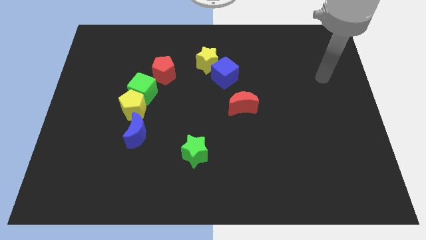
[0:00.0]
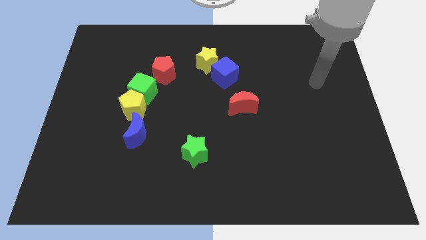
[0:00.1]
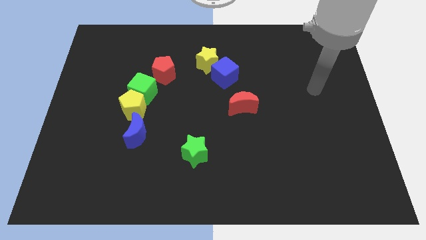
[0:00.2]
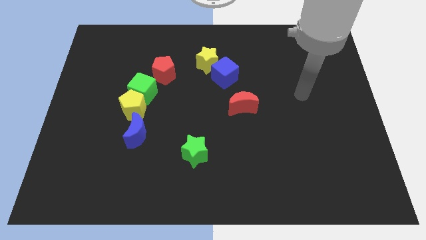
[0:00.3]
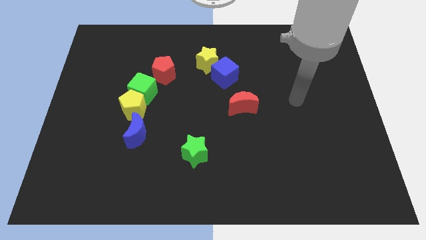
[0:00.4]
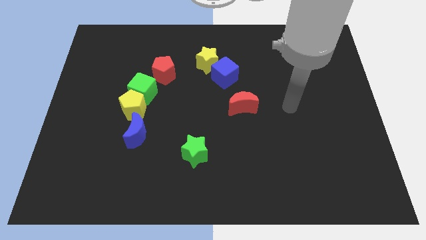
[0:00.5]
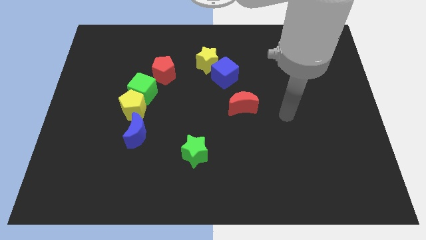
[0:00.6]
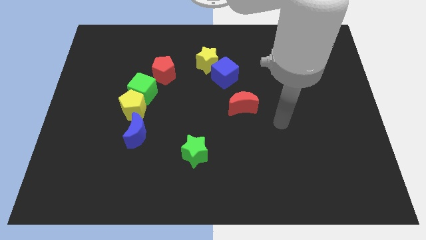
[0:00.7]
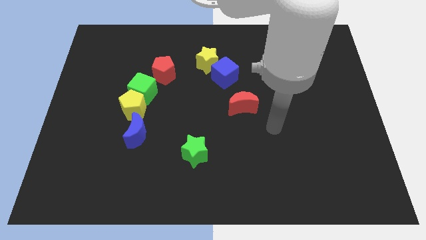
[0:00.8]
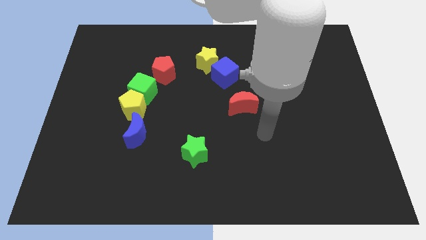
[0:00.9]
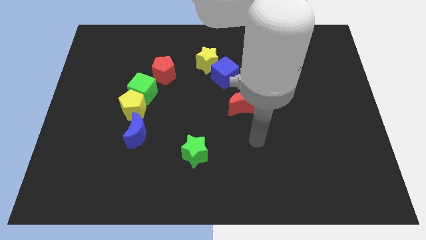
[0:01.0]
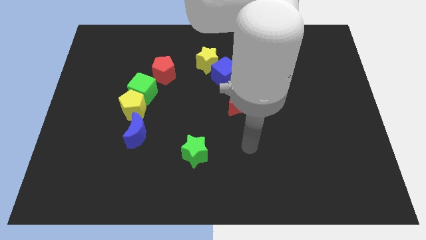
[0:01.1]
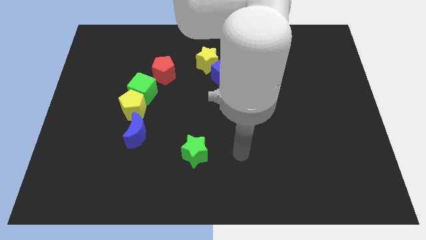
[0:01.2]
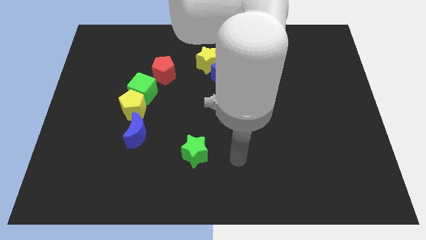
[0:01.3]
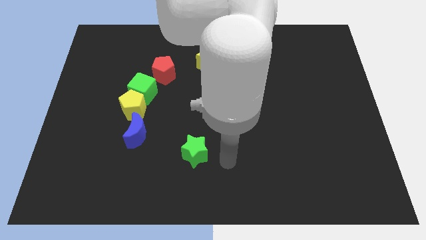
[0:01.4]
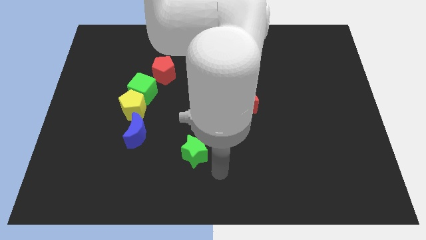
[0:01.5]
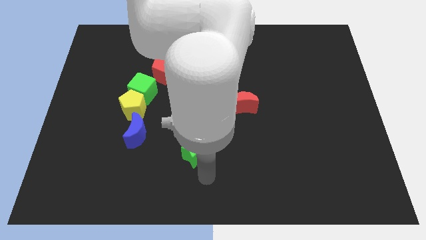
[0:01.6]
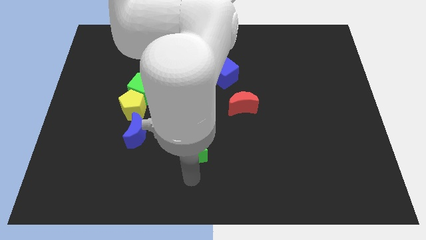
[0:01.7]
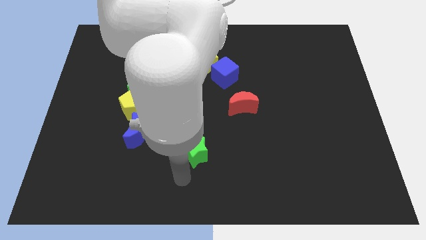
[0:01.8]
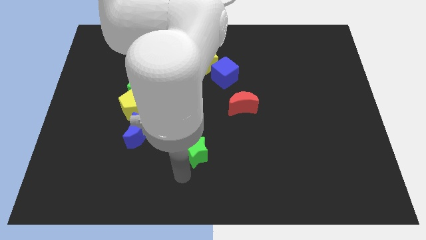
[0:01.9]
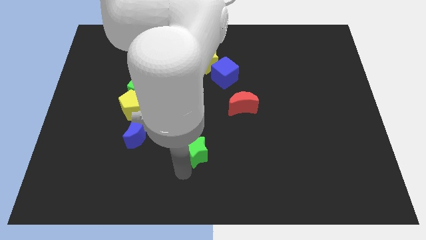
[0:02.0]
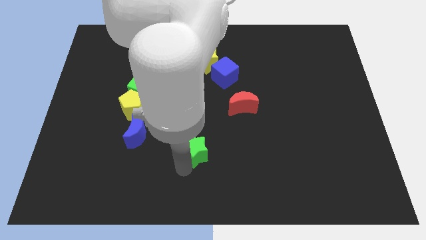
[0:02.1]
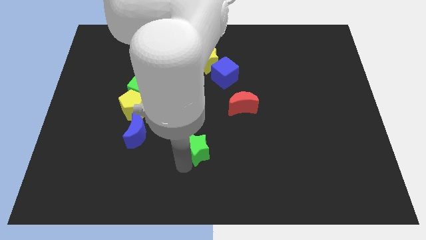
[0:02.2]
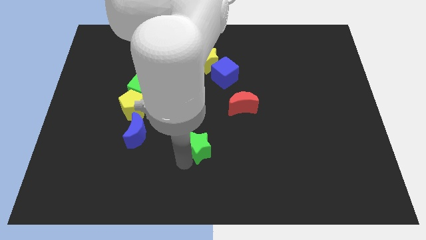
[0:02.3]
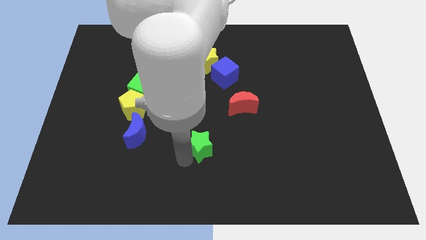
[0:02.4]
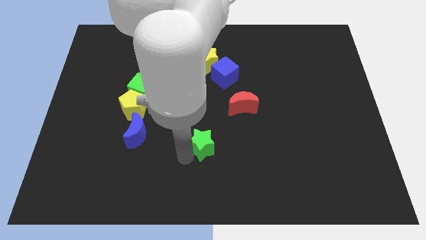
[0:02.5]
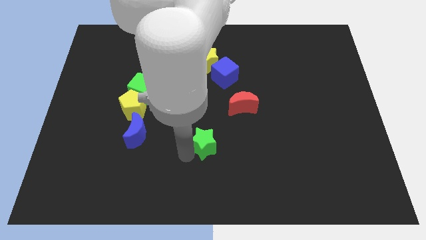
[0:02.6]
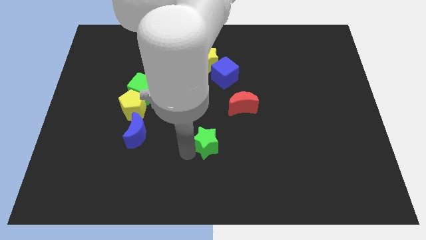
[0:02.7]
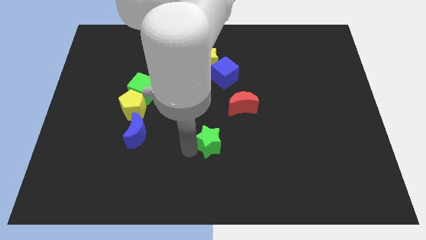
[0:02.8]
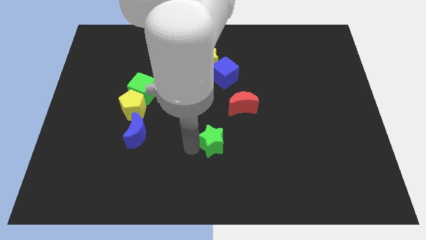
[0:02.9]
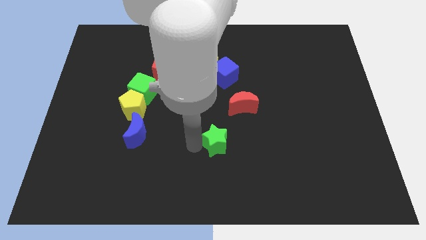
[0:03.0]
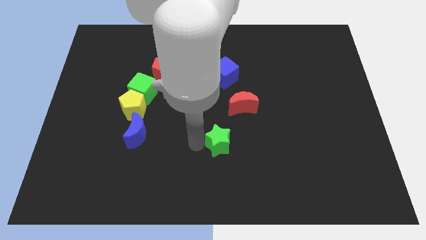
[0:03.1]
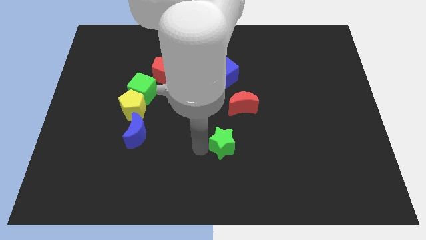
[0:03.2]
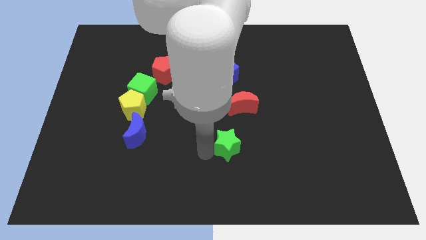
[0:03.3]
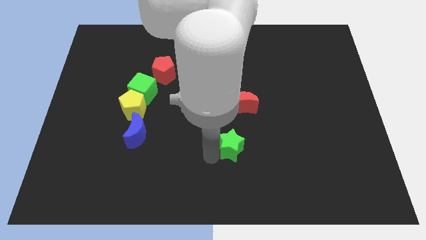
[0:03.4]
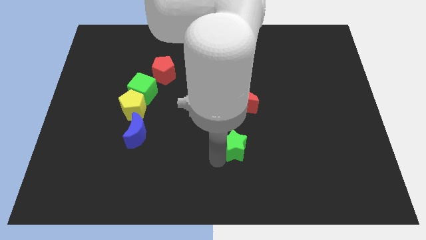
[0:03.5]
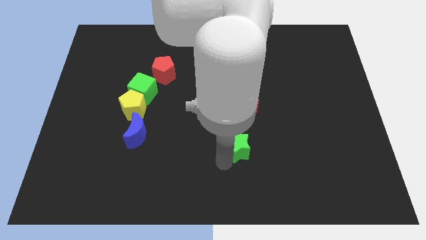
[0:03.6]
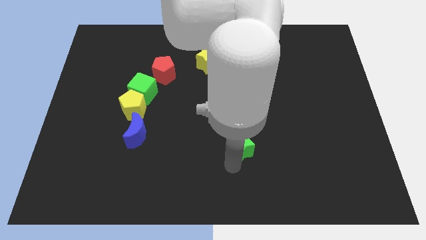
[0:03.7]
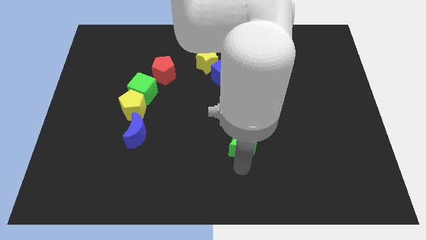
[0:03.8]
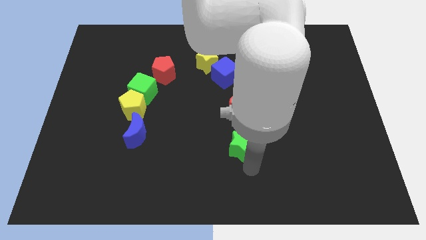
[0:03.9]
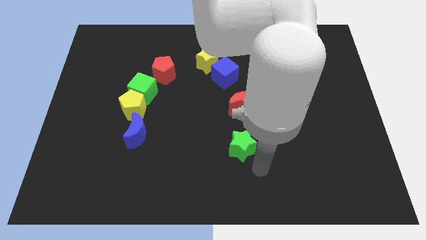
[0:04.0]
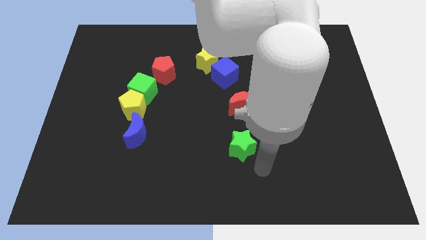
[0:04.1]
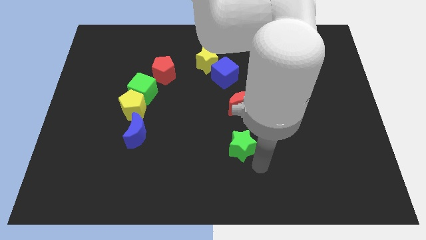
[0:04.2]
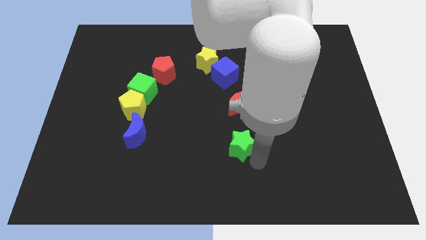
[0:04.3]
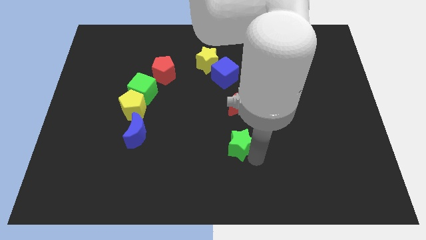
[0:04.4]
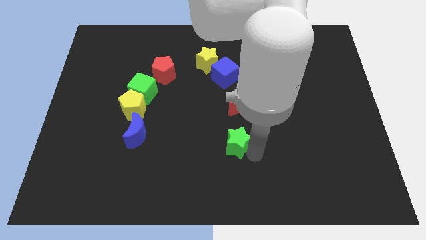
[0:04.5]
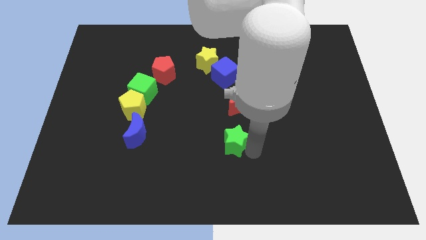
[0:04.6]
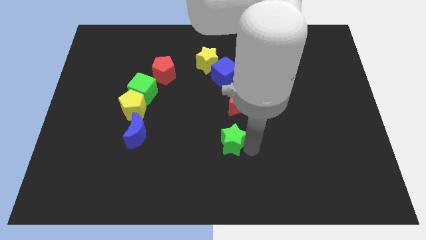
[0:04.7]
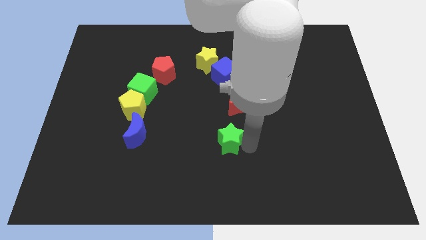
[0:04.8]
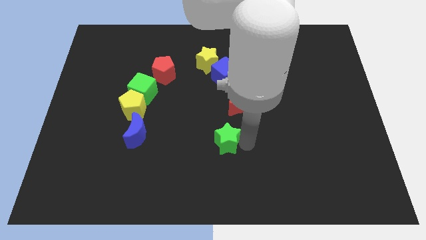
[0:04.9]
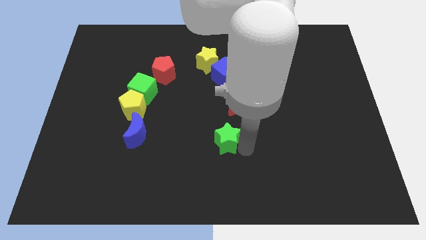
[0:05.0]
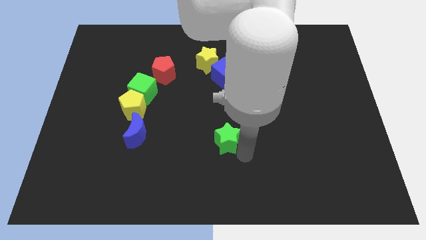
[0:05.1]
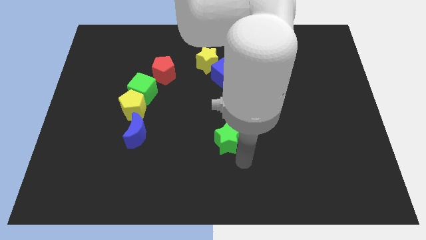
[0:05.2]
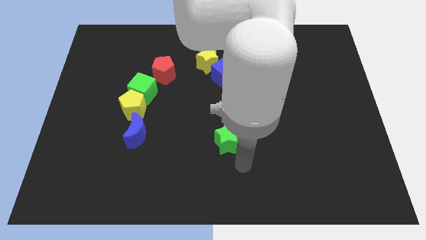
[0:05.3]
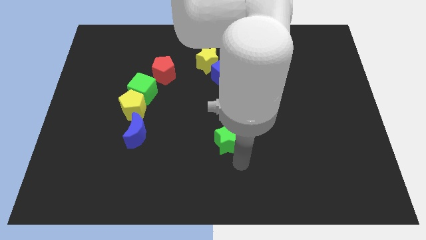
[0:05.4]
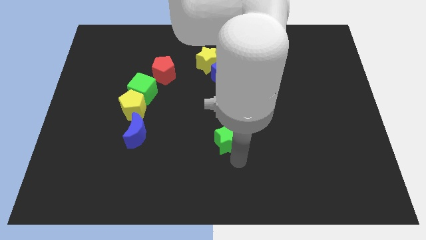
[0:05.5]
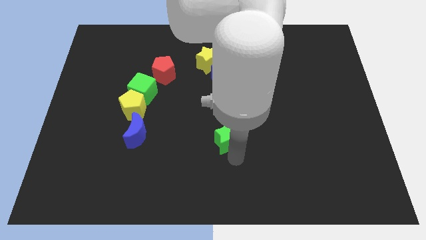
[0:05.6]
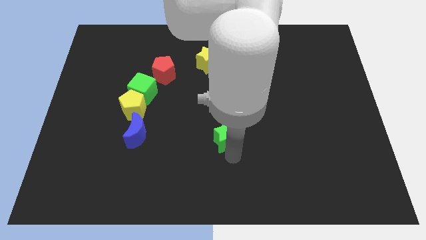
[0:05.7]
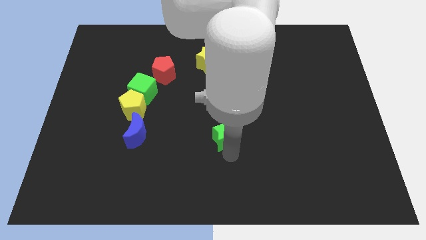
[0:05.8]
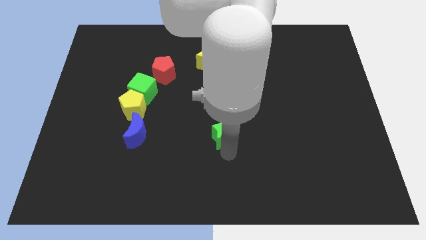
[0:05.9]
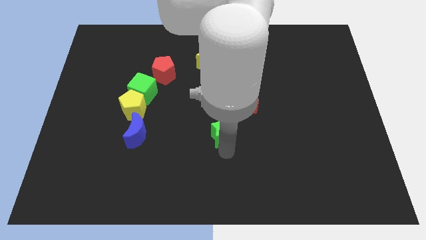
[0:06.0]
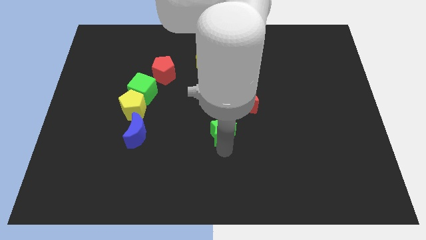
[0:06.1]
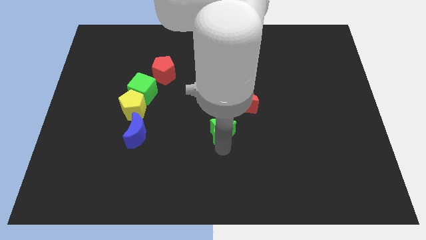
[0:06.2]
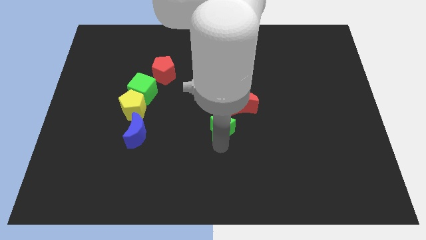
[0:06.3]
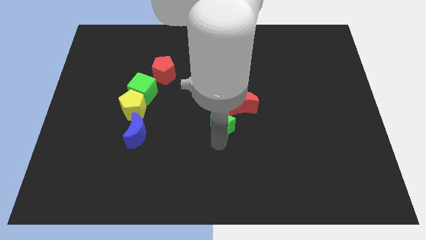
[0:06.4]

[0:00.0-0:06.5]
put the green star to the bottom side of the blue cube

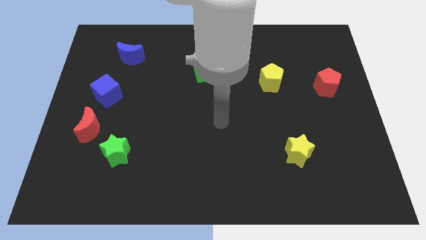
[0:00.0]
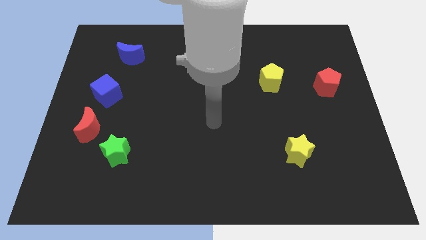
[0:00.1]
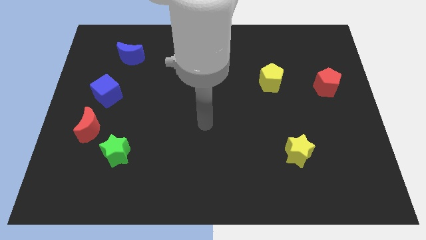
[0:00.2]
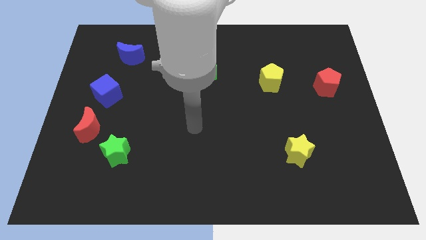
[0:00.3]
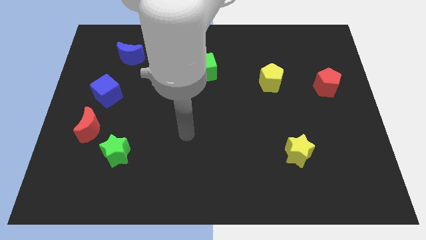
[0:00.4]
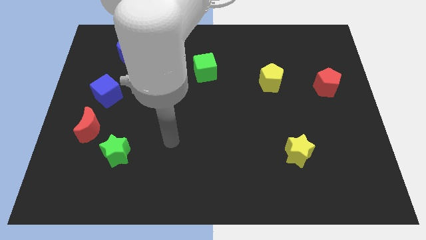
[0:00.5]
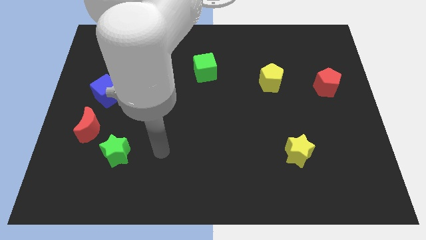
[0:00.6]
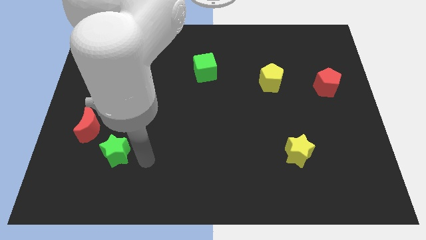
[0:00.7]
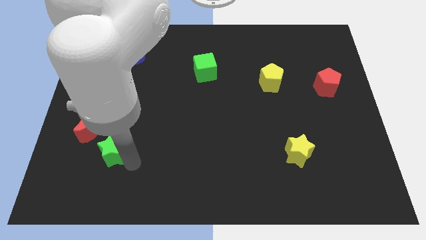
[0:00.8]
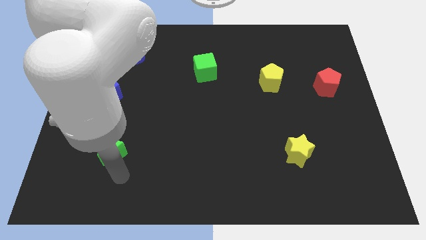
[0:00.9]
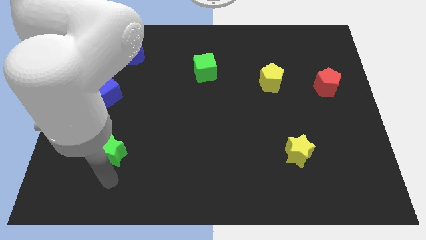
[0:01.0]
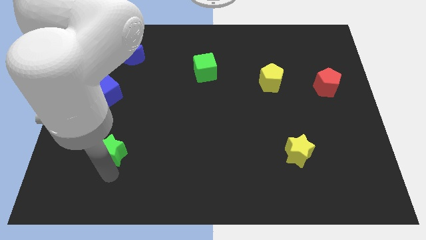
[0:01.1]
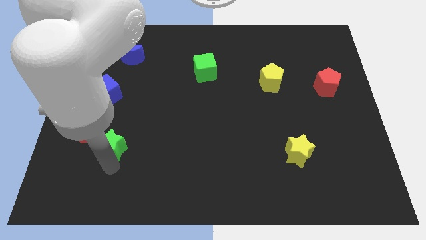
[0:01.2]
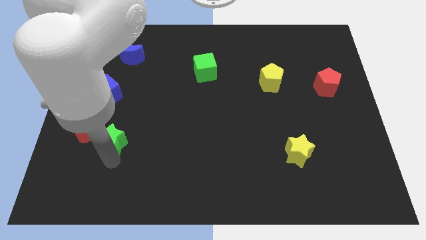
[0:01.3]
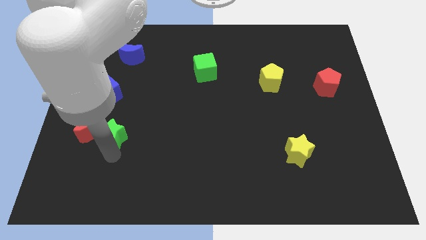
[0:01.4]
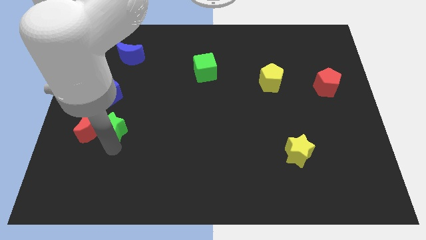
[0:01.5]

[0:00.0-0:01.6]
put the green star to the top right of the red moon
